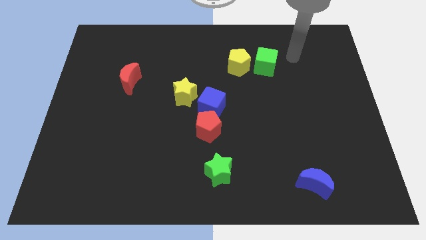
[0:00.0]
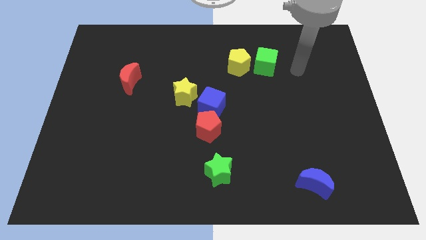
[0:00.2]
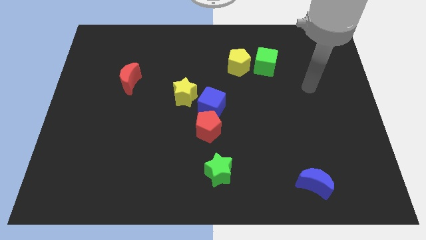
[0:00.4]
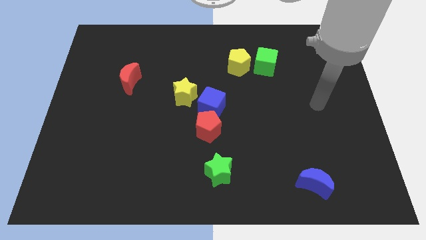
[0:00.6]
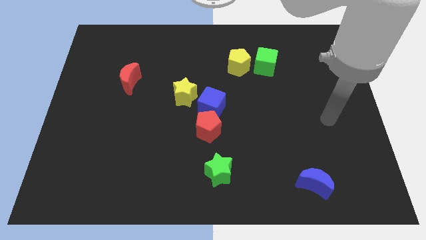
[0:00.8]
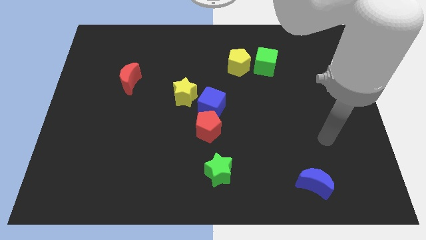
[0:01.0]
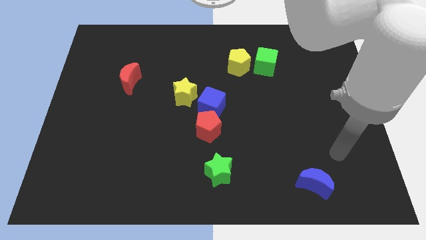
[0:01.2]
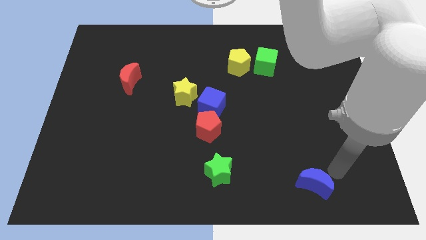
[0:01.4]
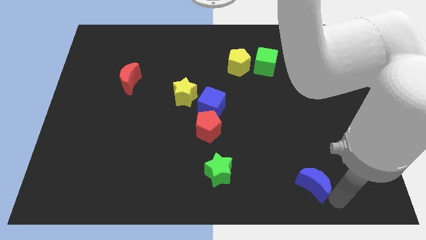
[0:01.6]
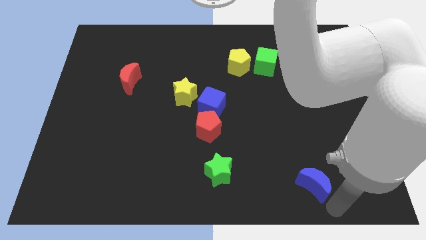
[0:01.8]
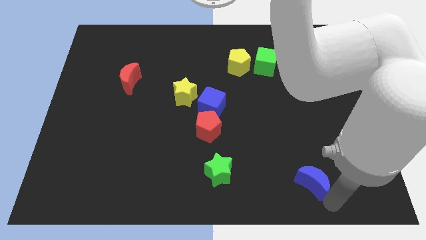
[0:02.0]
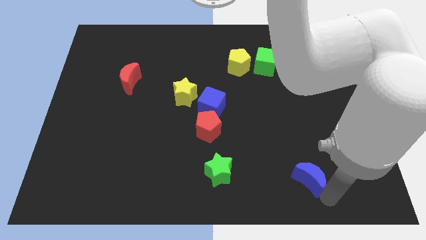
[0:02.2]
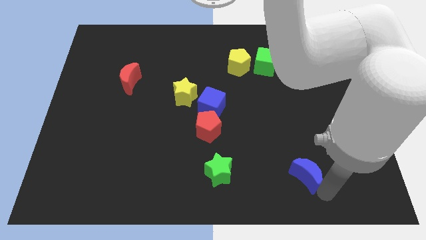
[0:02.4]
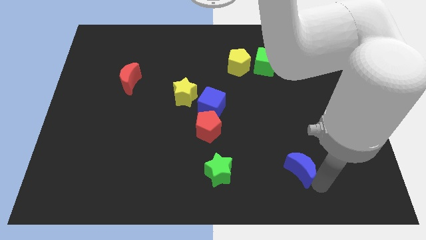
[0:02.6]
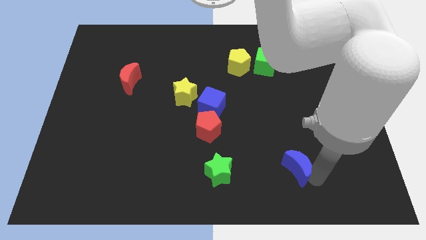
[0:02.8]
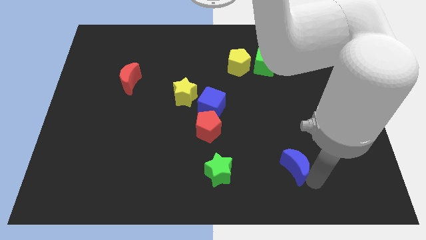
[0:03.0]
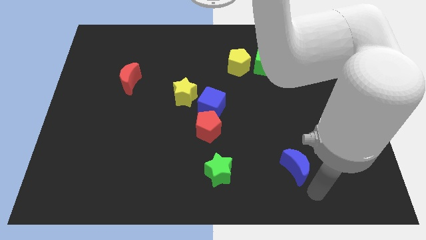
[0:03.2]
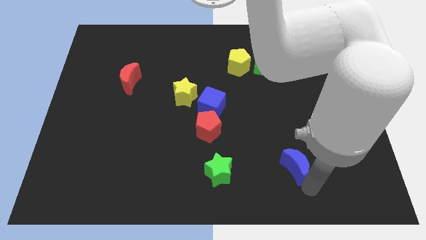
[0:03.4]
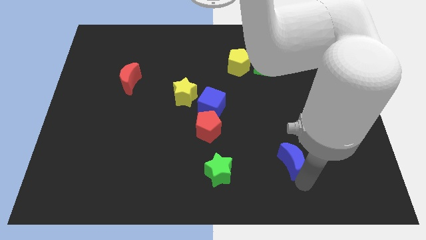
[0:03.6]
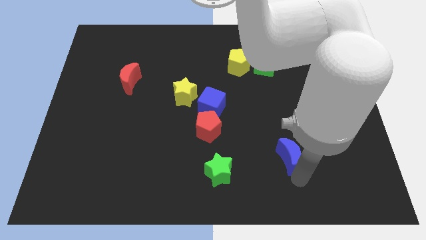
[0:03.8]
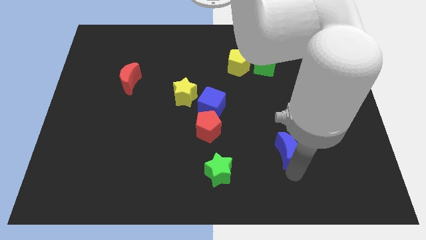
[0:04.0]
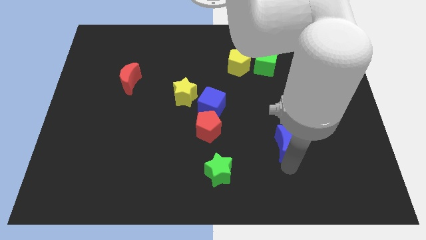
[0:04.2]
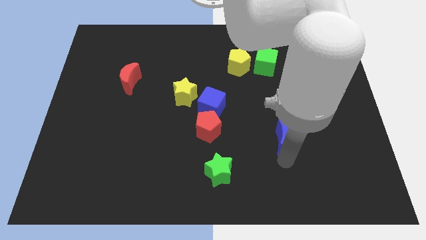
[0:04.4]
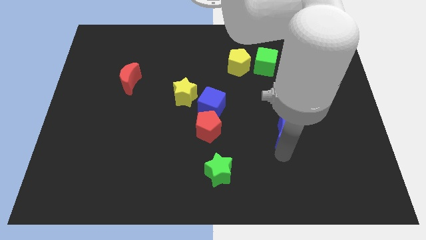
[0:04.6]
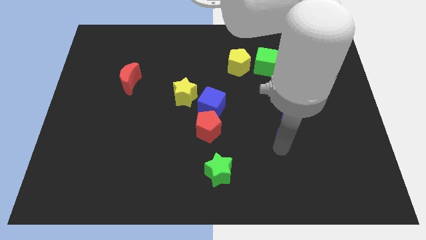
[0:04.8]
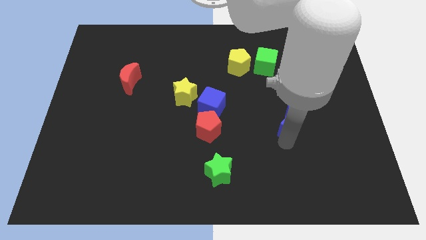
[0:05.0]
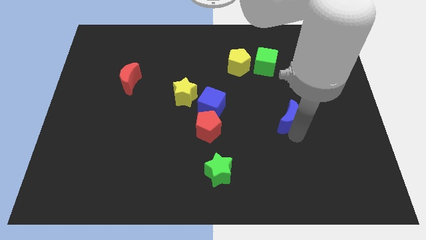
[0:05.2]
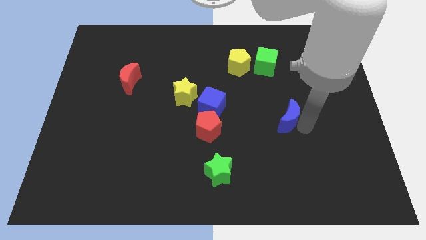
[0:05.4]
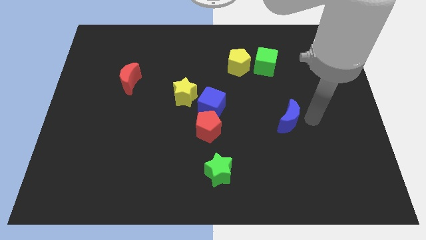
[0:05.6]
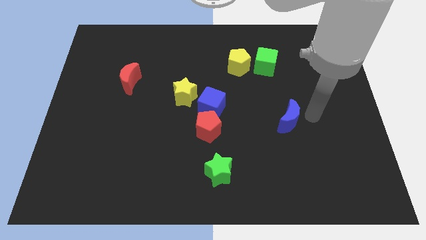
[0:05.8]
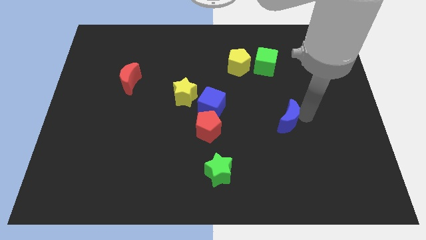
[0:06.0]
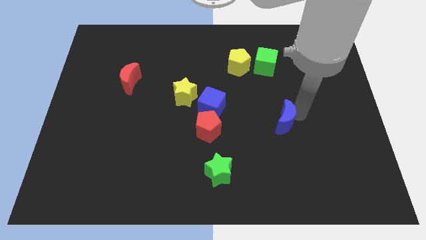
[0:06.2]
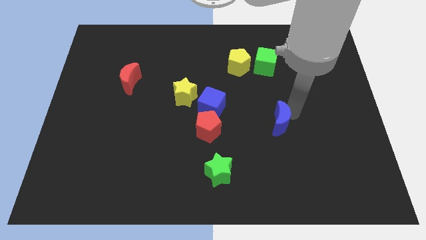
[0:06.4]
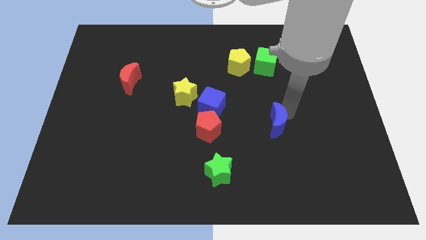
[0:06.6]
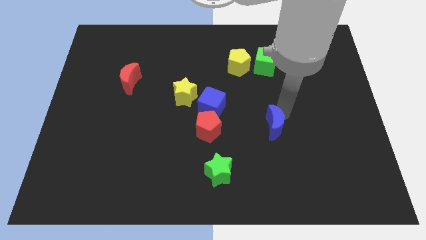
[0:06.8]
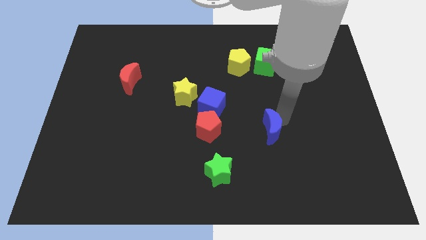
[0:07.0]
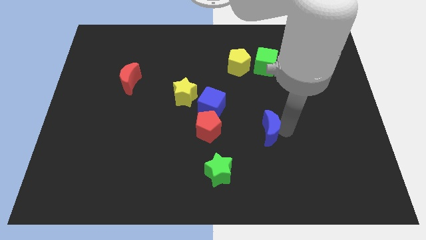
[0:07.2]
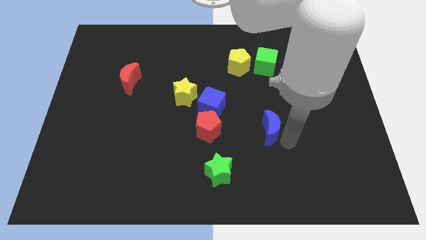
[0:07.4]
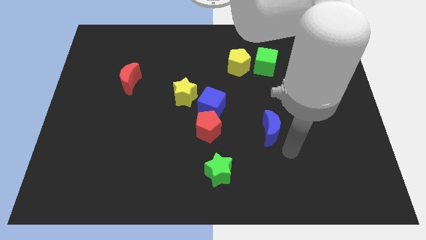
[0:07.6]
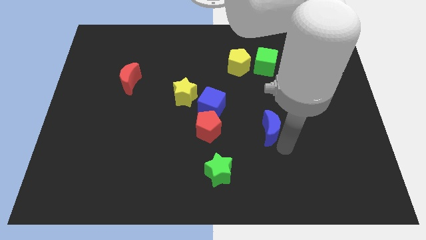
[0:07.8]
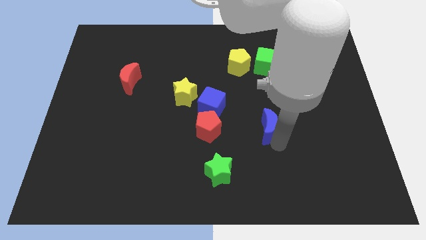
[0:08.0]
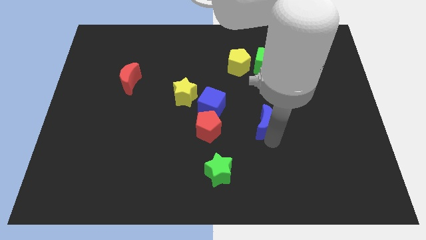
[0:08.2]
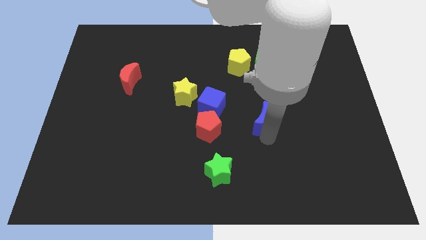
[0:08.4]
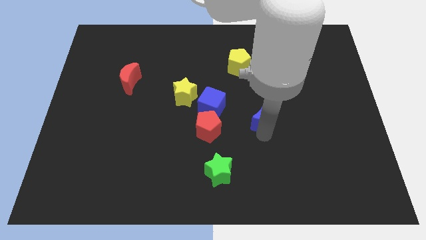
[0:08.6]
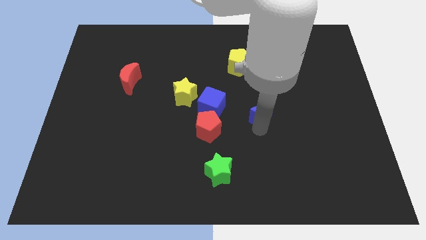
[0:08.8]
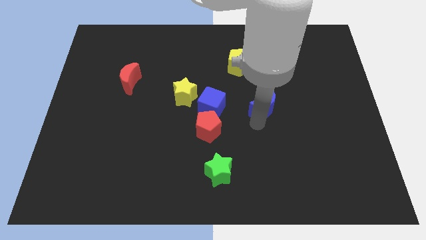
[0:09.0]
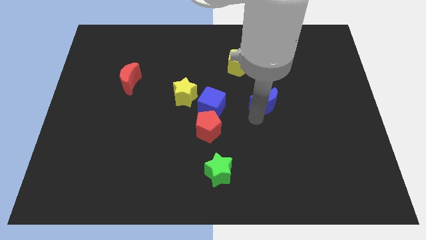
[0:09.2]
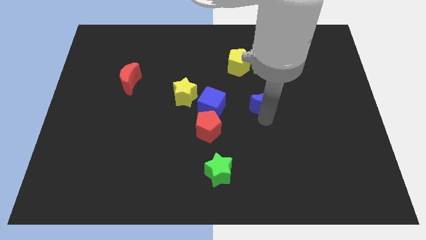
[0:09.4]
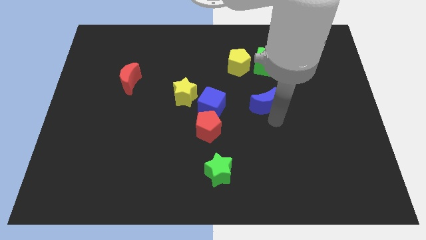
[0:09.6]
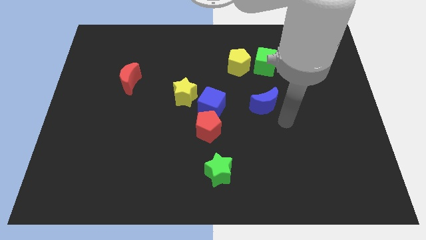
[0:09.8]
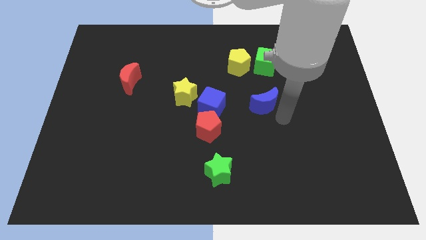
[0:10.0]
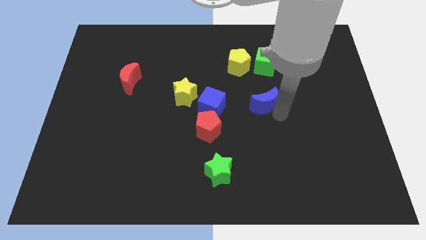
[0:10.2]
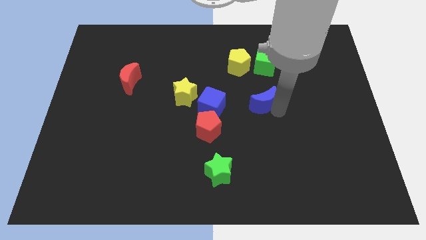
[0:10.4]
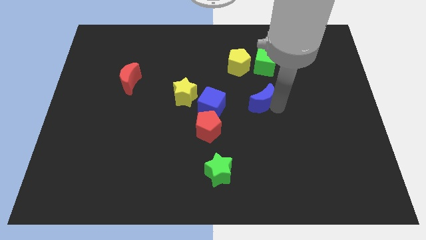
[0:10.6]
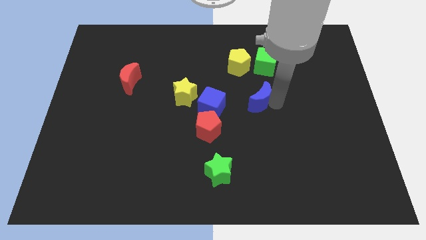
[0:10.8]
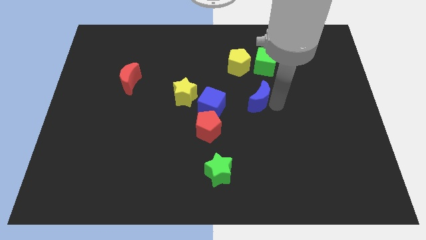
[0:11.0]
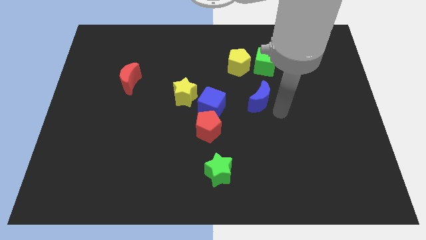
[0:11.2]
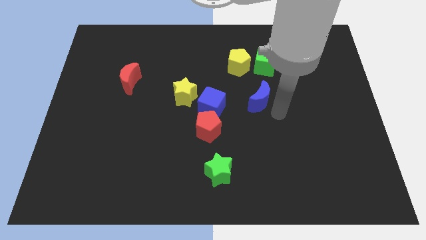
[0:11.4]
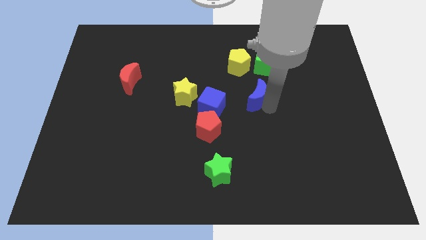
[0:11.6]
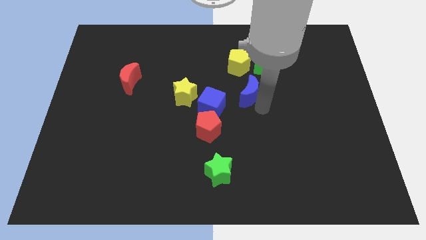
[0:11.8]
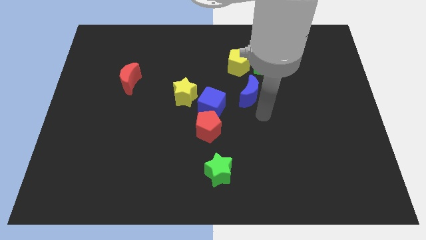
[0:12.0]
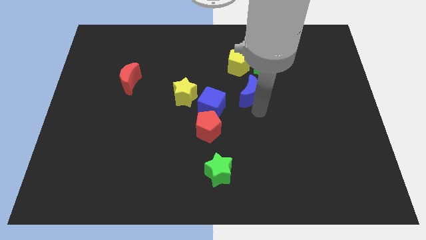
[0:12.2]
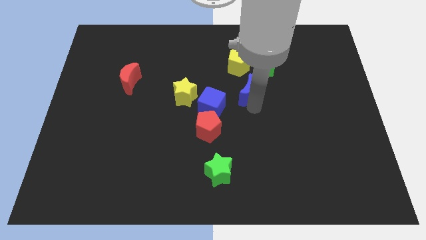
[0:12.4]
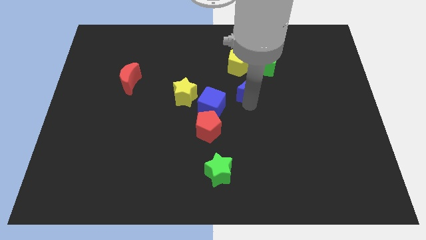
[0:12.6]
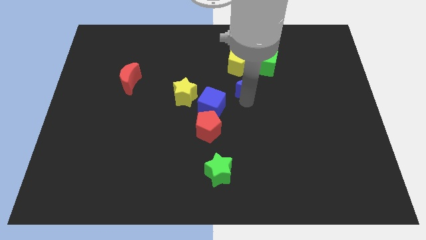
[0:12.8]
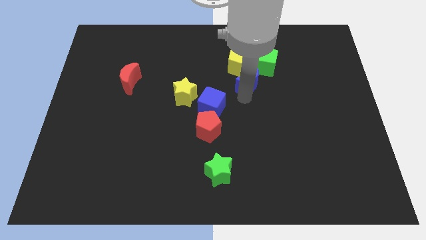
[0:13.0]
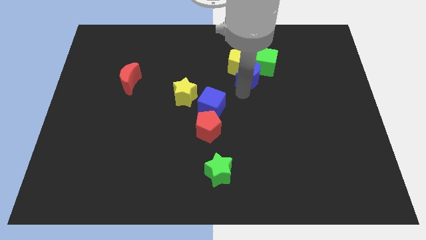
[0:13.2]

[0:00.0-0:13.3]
slide the blue moon to the yellow pentagon

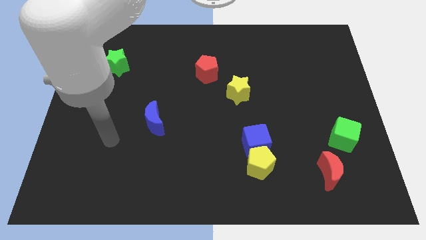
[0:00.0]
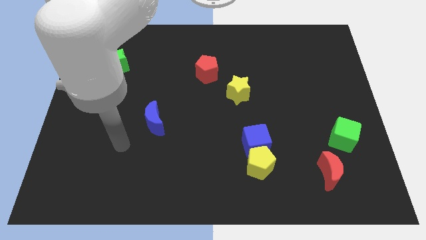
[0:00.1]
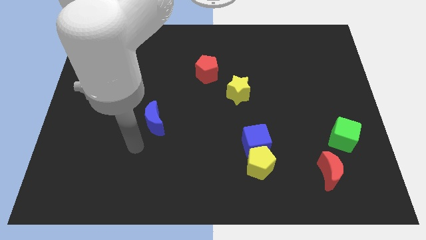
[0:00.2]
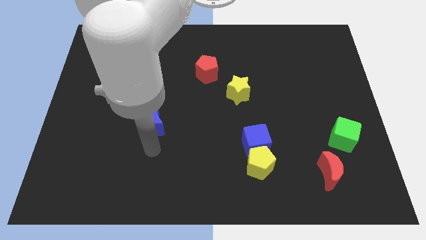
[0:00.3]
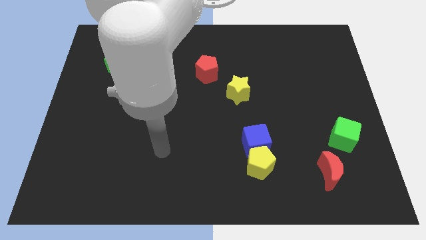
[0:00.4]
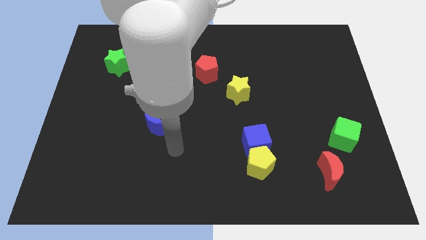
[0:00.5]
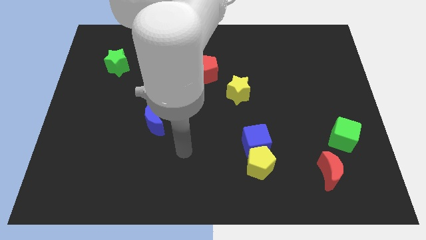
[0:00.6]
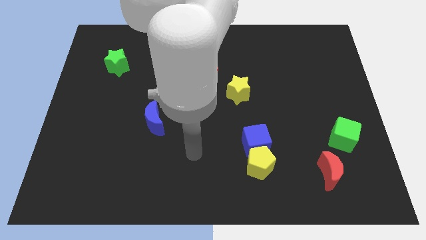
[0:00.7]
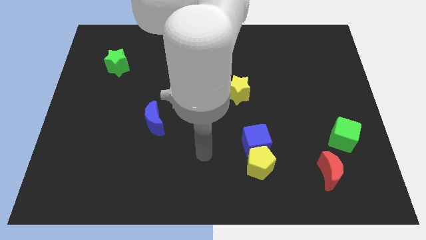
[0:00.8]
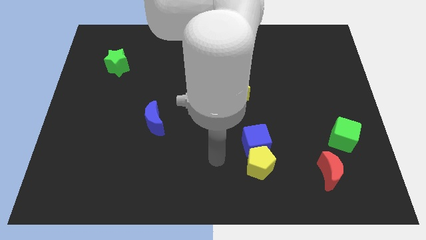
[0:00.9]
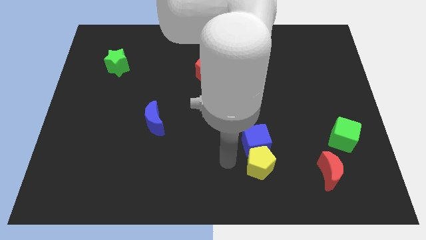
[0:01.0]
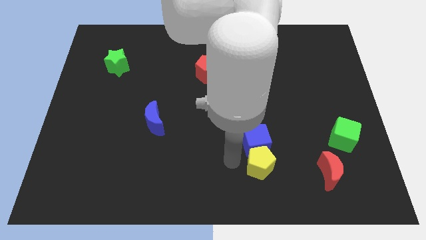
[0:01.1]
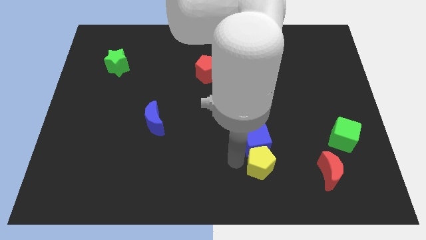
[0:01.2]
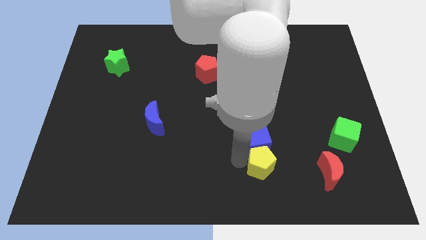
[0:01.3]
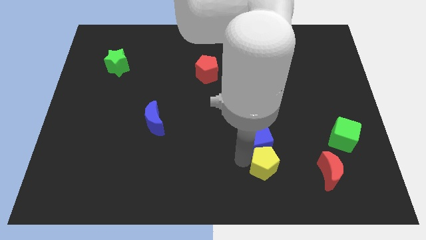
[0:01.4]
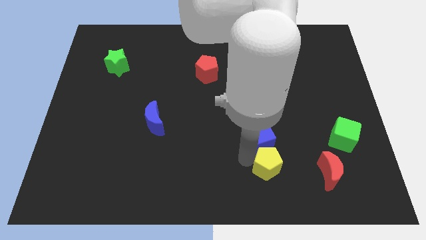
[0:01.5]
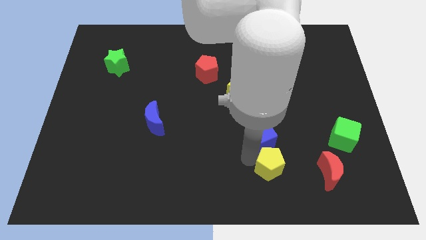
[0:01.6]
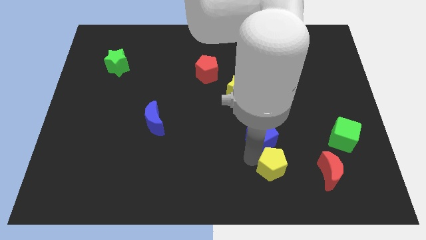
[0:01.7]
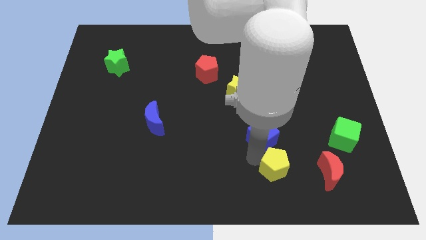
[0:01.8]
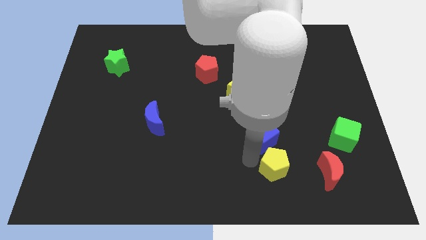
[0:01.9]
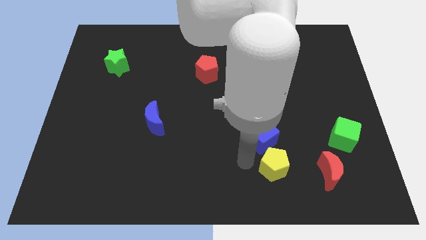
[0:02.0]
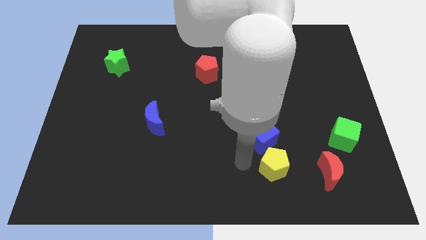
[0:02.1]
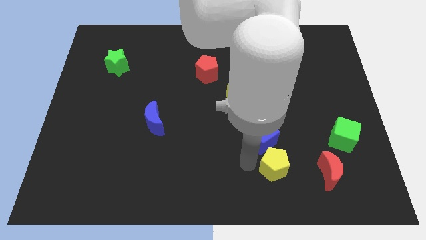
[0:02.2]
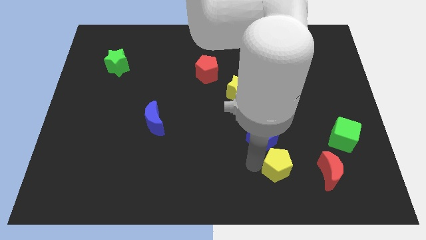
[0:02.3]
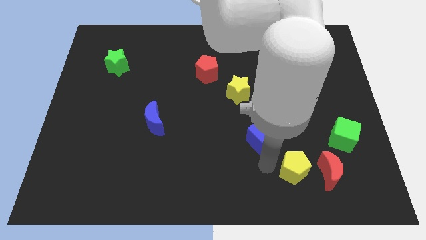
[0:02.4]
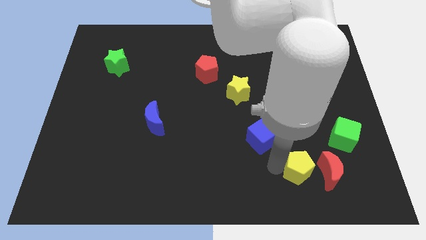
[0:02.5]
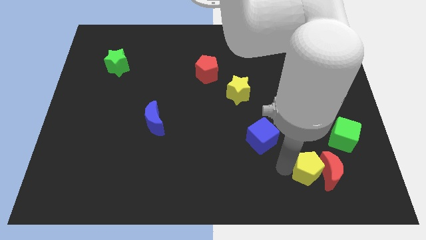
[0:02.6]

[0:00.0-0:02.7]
push the yellow pentagon next to the red moon
